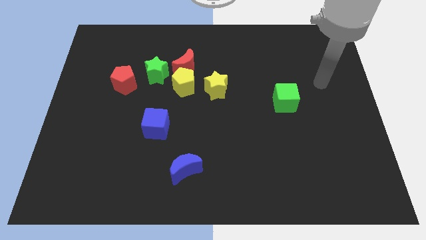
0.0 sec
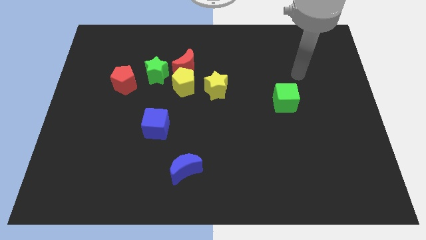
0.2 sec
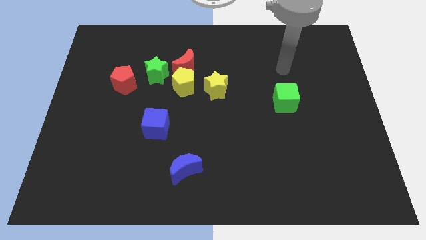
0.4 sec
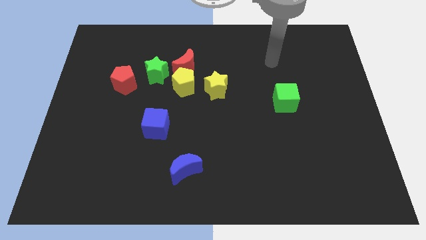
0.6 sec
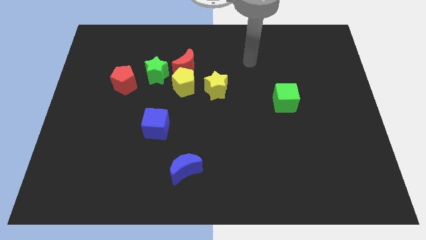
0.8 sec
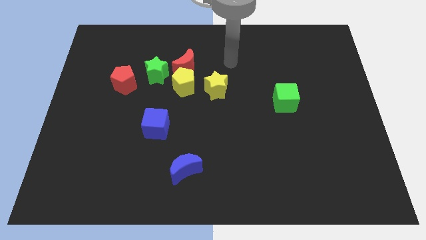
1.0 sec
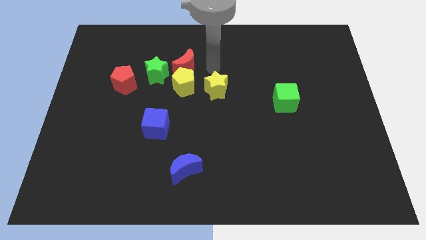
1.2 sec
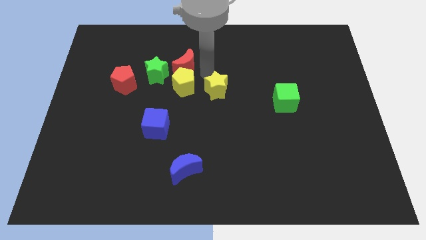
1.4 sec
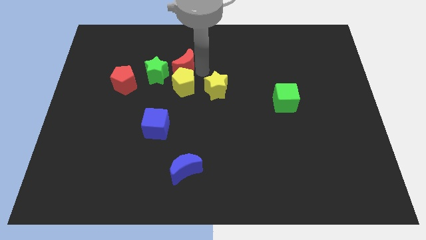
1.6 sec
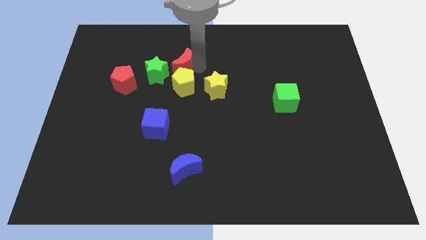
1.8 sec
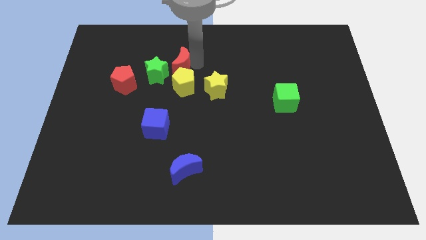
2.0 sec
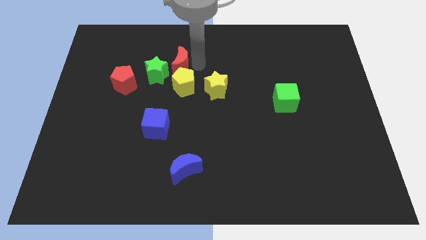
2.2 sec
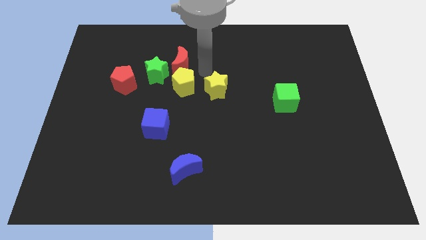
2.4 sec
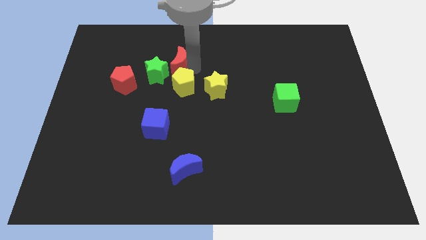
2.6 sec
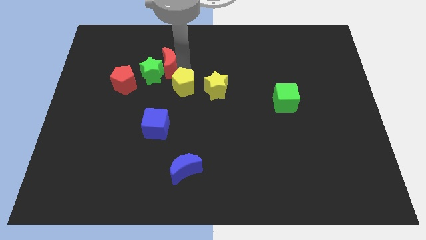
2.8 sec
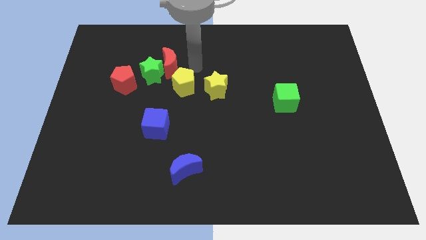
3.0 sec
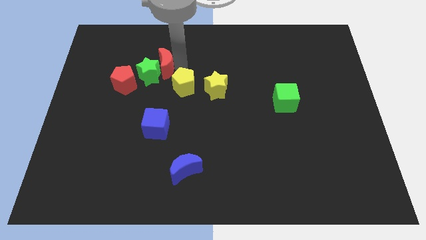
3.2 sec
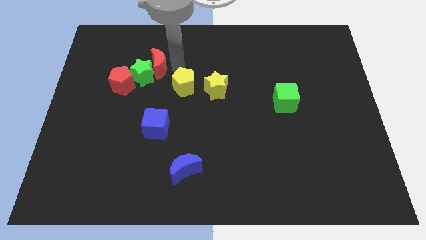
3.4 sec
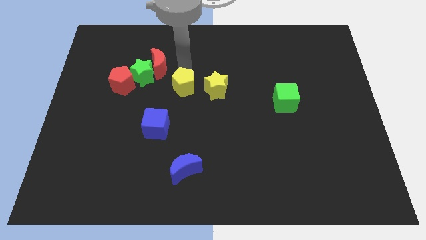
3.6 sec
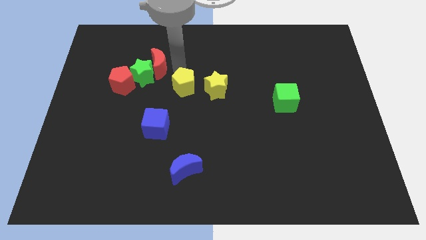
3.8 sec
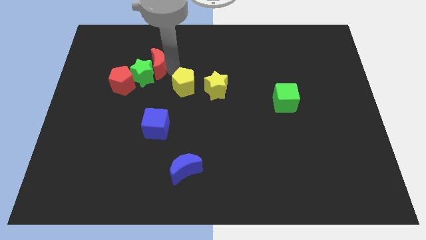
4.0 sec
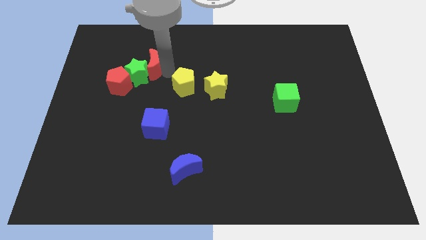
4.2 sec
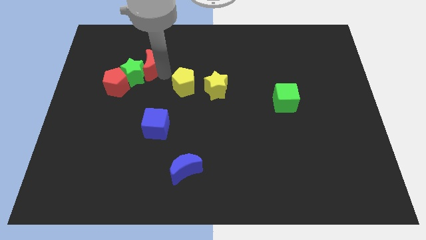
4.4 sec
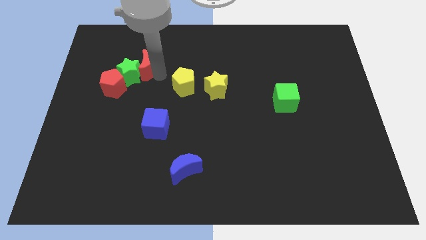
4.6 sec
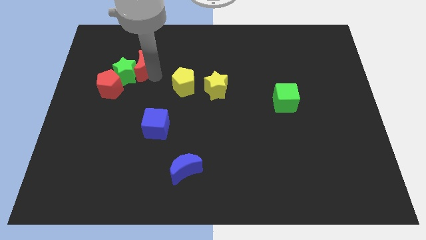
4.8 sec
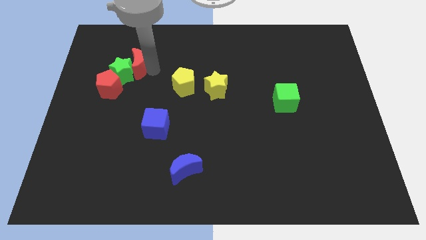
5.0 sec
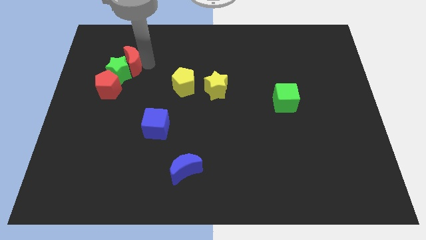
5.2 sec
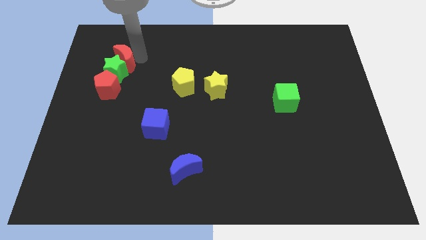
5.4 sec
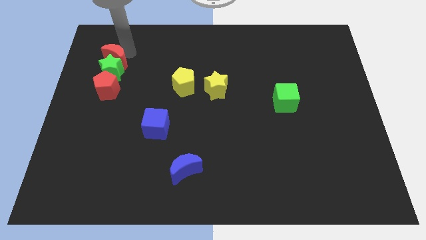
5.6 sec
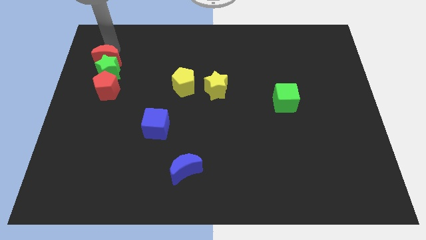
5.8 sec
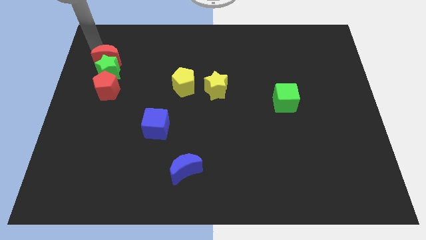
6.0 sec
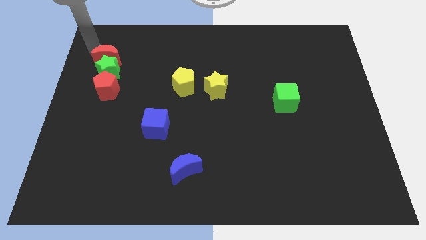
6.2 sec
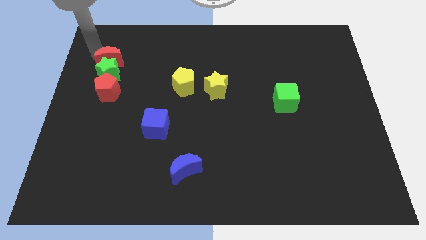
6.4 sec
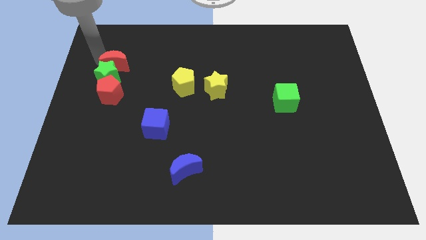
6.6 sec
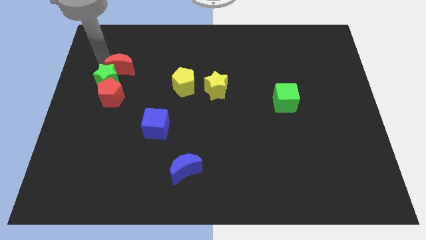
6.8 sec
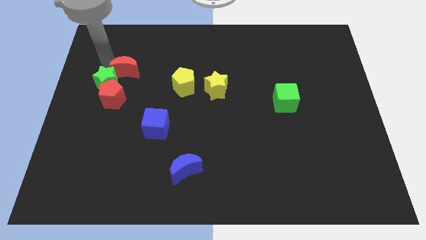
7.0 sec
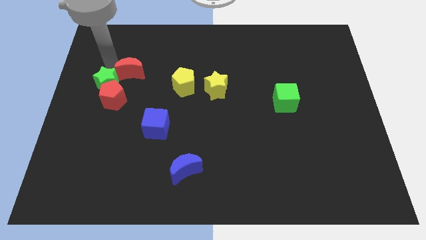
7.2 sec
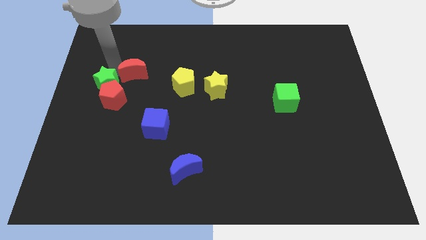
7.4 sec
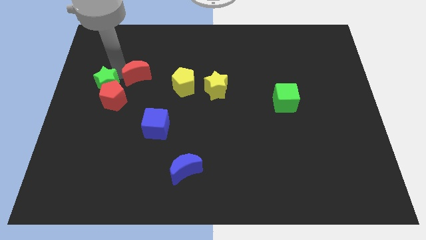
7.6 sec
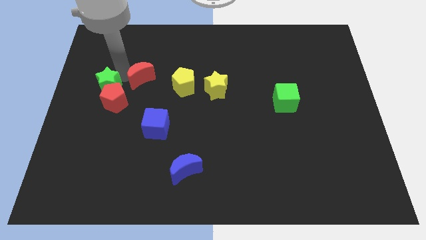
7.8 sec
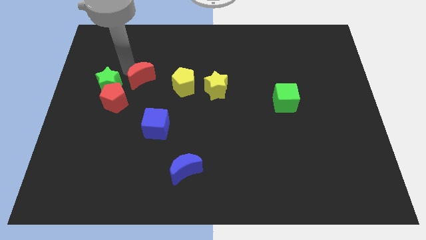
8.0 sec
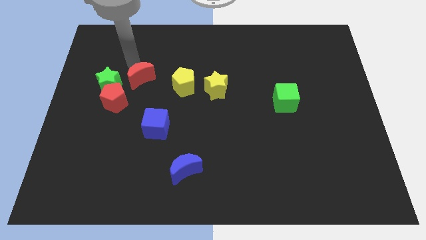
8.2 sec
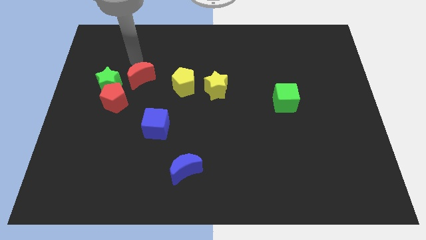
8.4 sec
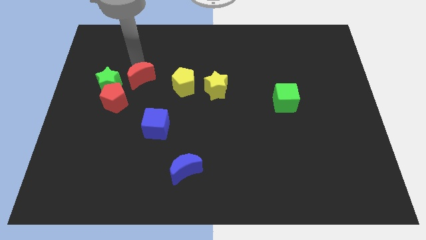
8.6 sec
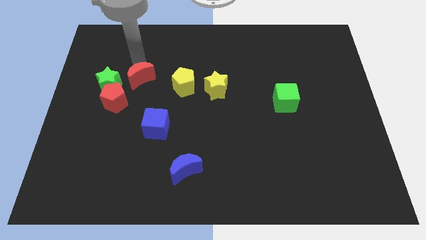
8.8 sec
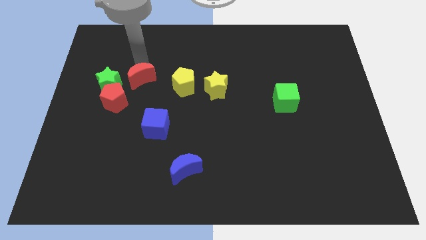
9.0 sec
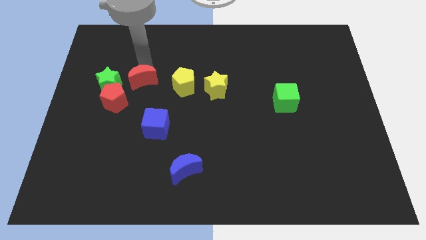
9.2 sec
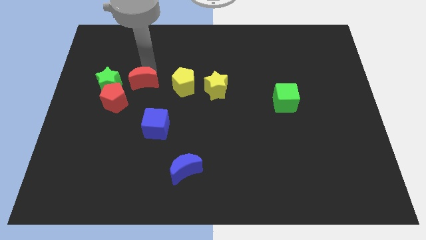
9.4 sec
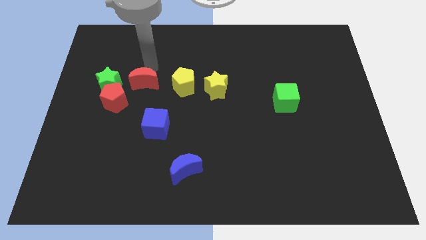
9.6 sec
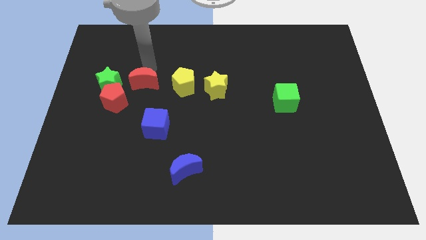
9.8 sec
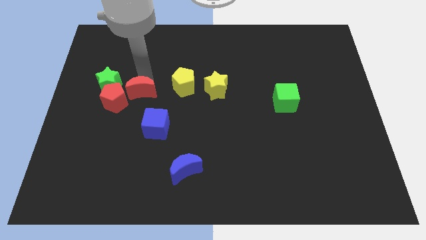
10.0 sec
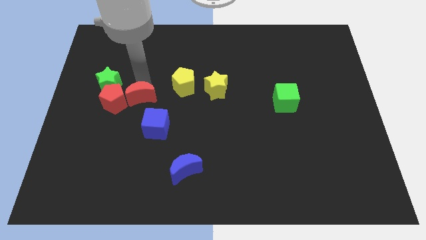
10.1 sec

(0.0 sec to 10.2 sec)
slide the red moon diagonally up and to the left of the blue cube

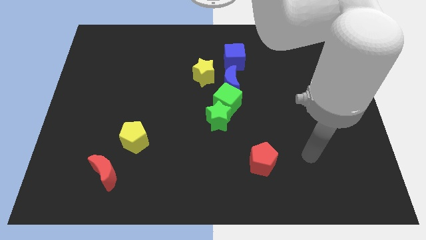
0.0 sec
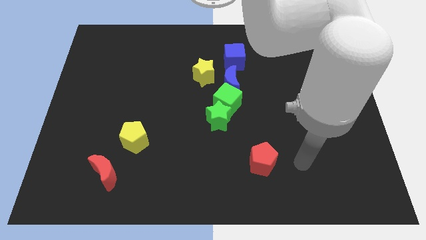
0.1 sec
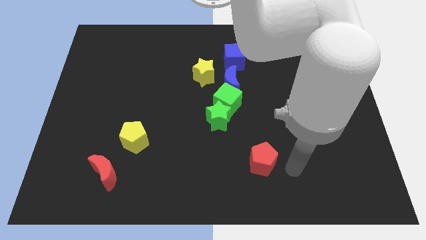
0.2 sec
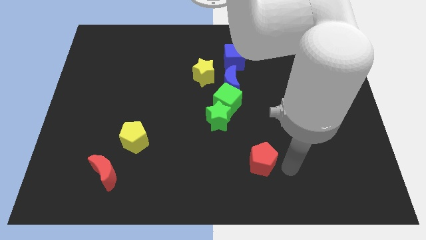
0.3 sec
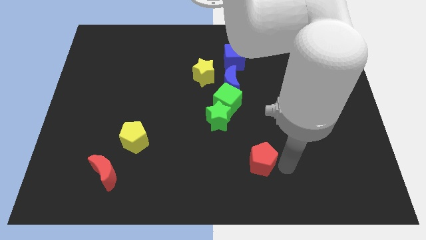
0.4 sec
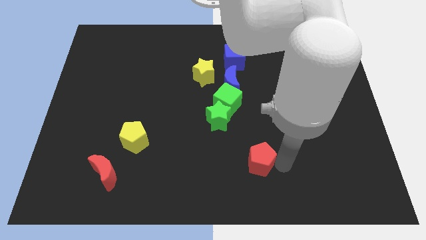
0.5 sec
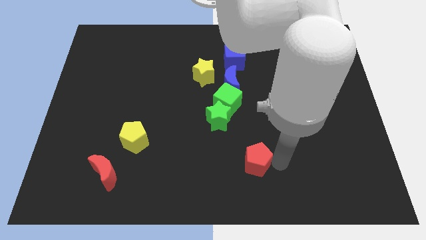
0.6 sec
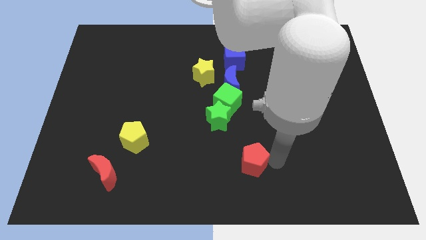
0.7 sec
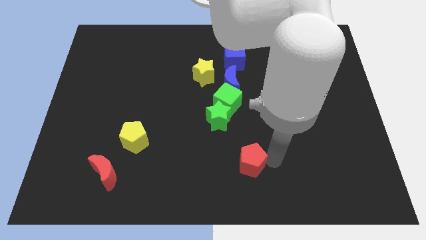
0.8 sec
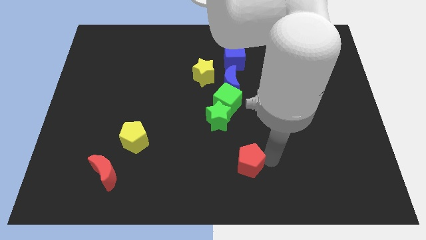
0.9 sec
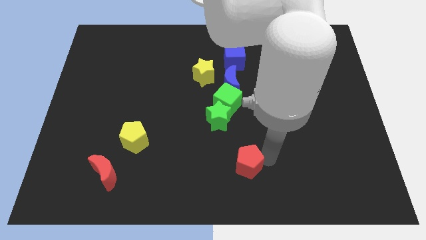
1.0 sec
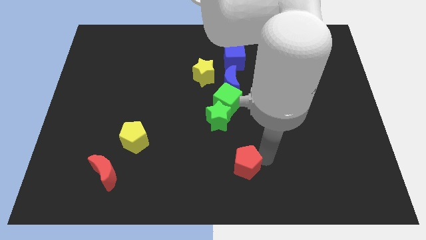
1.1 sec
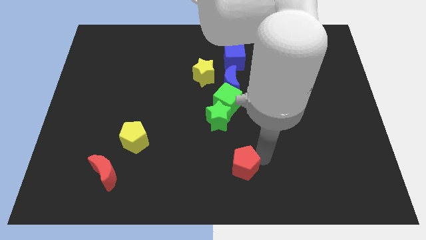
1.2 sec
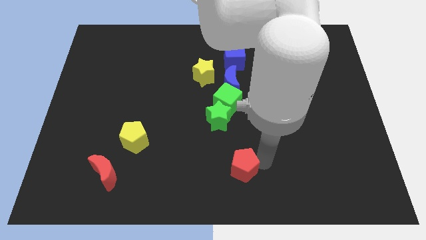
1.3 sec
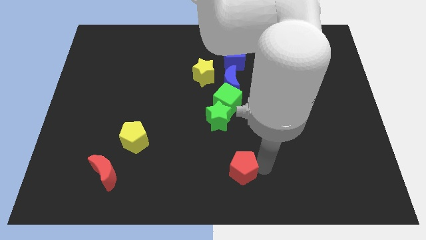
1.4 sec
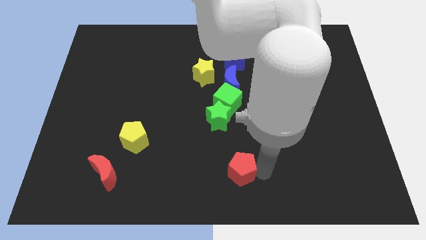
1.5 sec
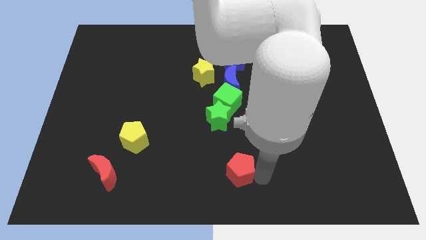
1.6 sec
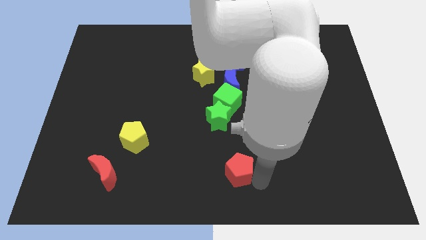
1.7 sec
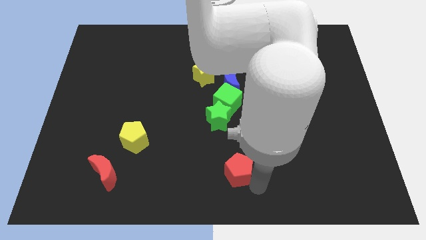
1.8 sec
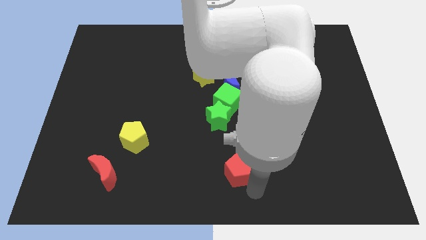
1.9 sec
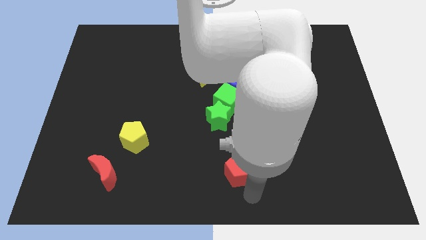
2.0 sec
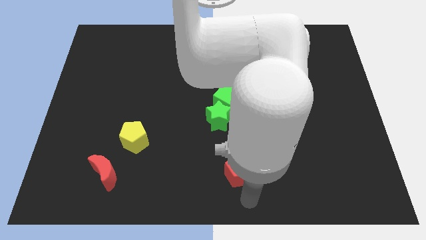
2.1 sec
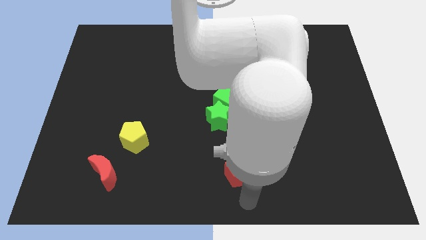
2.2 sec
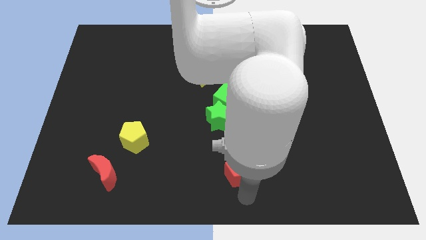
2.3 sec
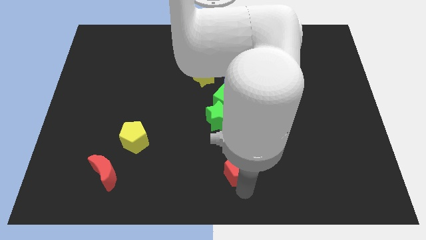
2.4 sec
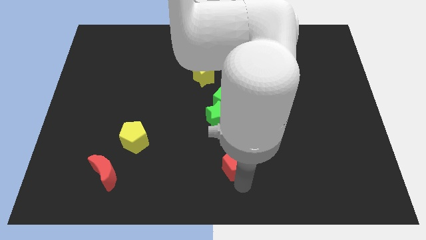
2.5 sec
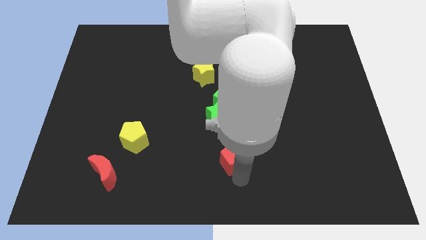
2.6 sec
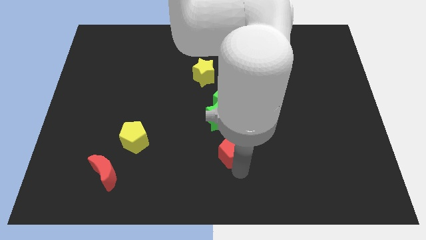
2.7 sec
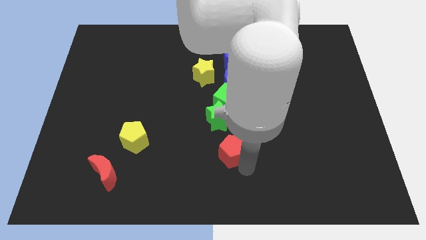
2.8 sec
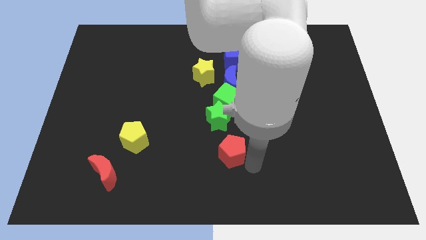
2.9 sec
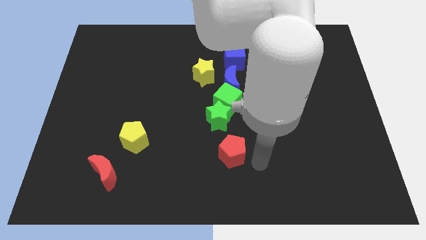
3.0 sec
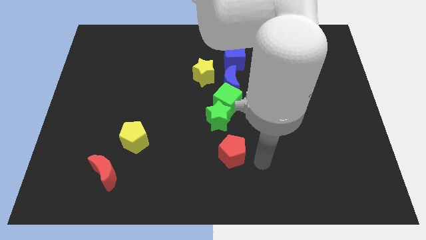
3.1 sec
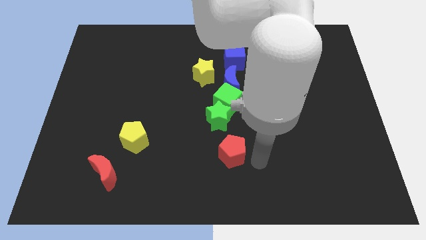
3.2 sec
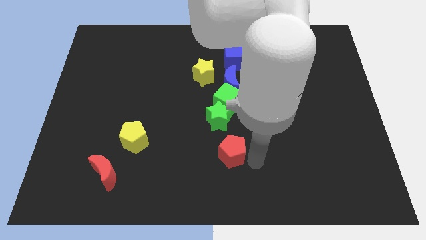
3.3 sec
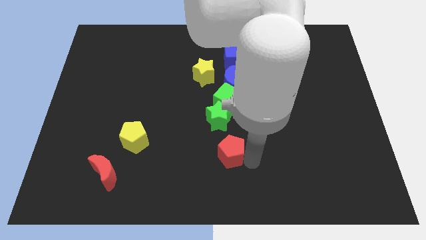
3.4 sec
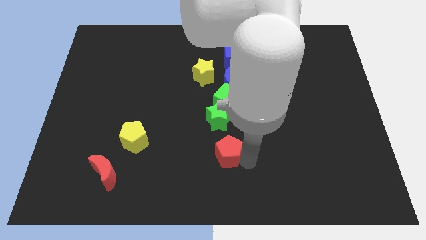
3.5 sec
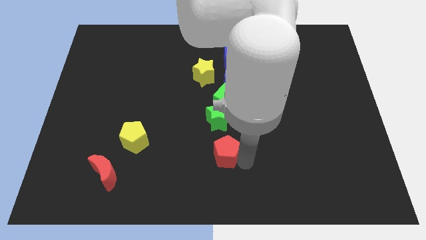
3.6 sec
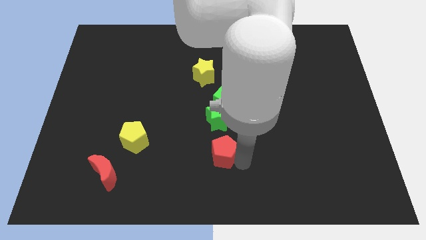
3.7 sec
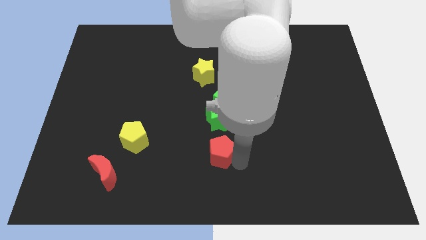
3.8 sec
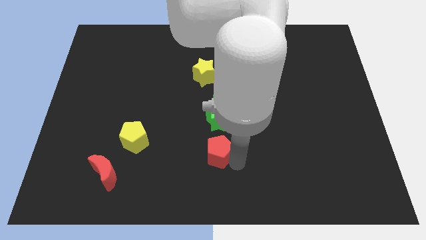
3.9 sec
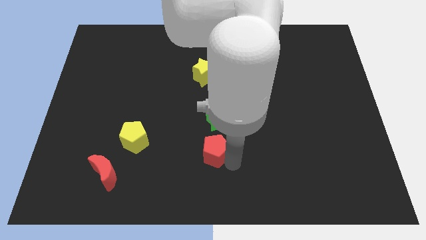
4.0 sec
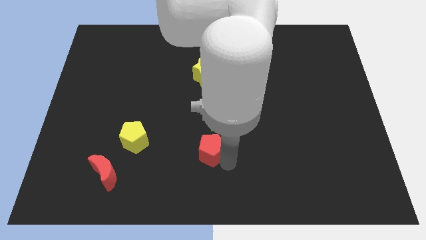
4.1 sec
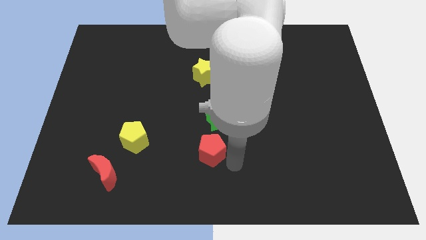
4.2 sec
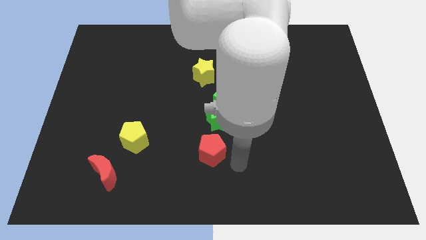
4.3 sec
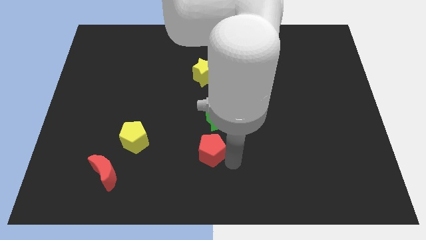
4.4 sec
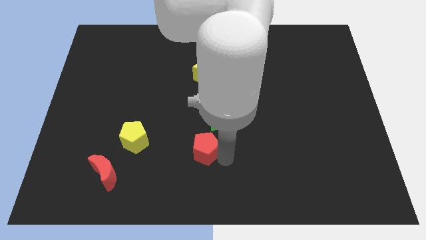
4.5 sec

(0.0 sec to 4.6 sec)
slide the red pentagon to the right of the yellow pentagon
